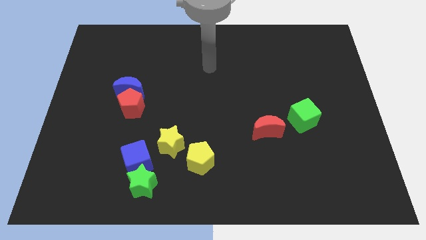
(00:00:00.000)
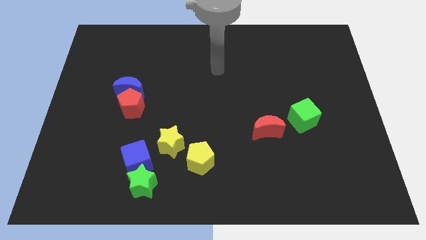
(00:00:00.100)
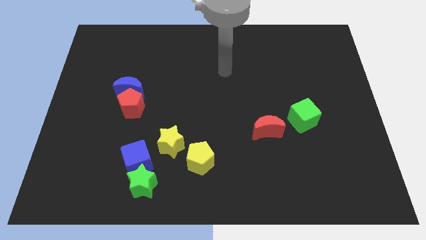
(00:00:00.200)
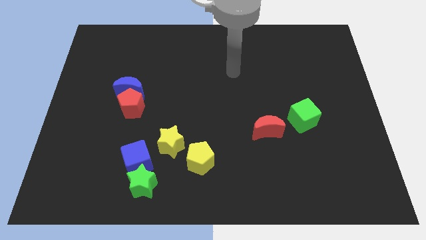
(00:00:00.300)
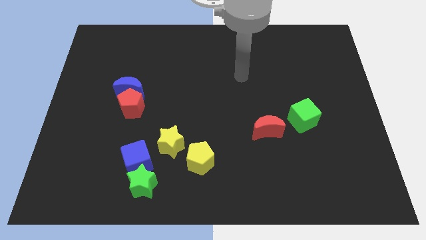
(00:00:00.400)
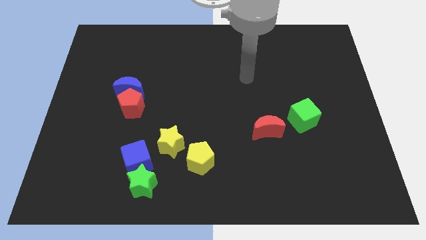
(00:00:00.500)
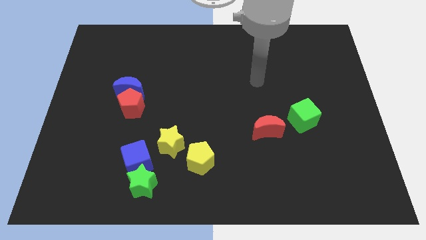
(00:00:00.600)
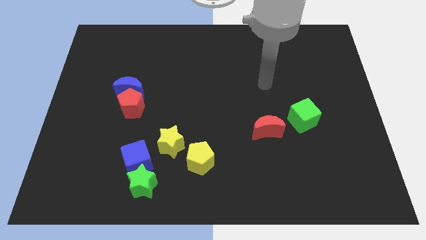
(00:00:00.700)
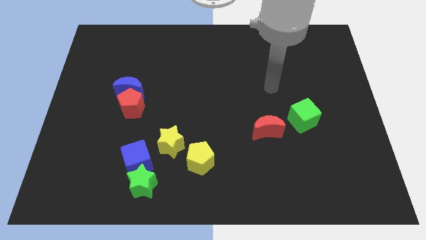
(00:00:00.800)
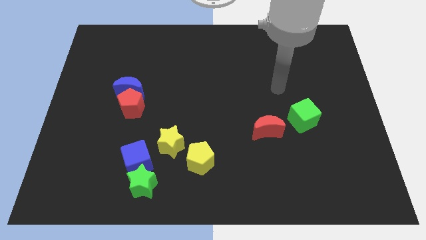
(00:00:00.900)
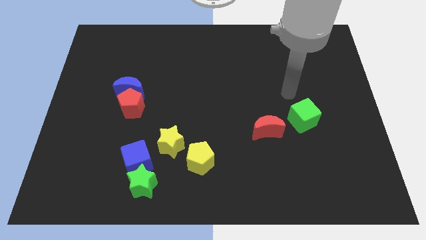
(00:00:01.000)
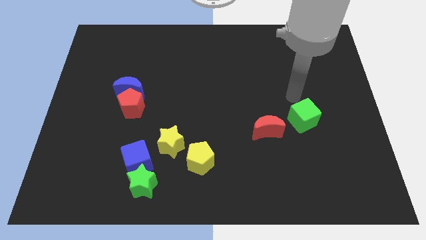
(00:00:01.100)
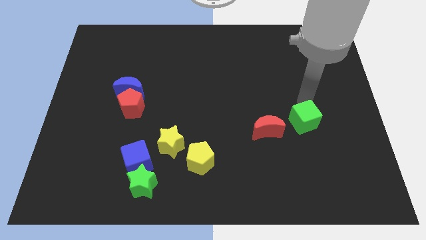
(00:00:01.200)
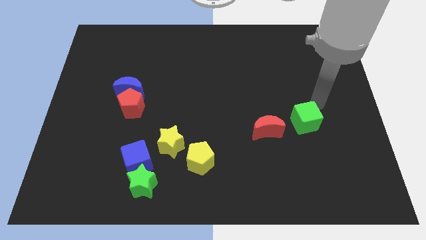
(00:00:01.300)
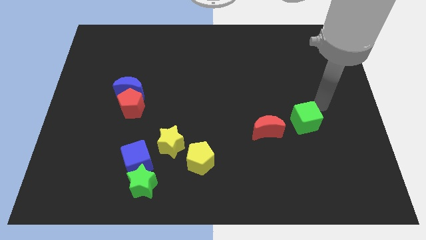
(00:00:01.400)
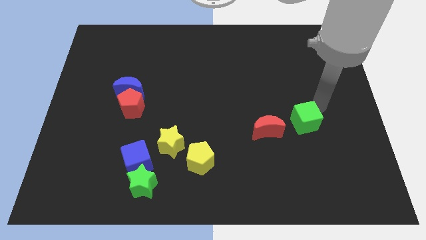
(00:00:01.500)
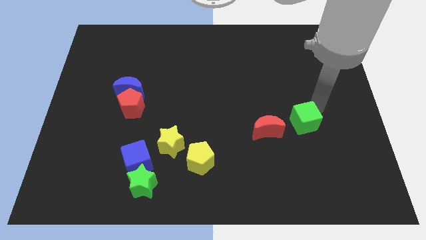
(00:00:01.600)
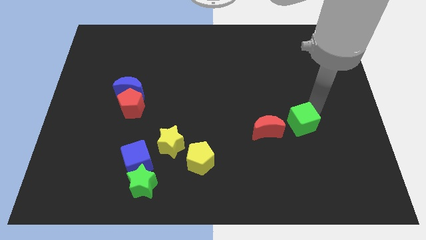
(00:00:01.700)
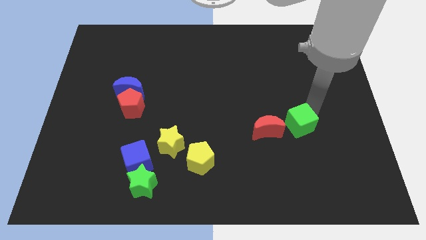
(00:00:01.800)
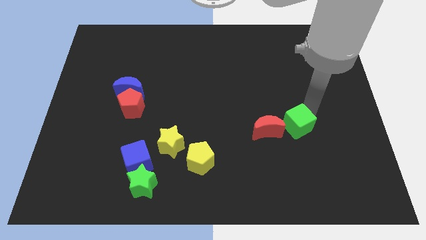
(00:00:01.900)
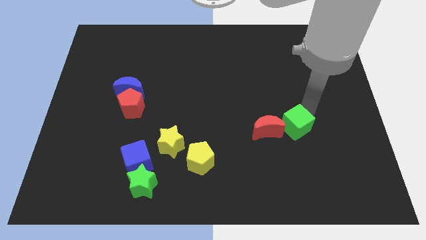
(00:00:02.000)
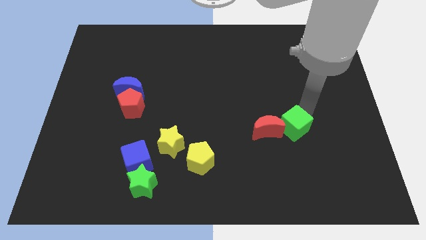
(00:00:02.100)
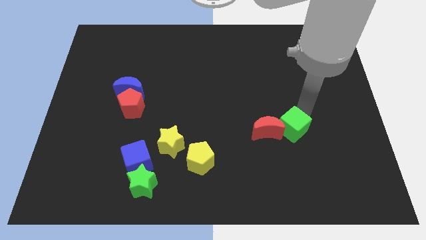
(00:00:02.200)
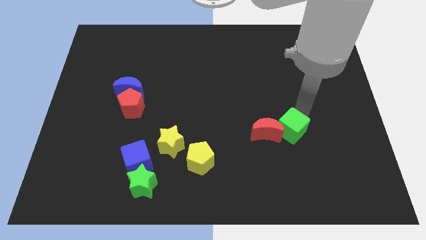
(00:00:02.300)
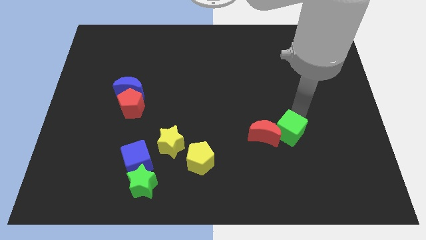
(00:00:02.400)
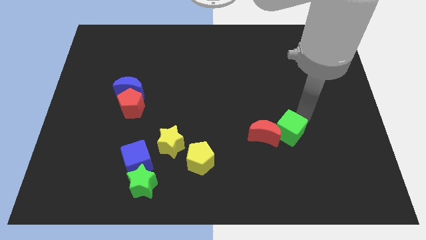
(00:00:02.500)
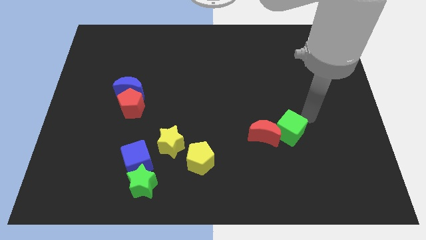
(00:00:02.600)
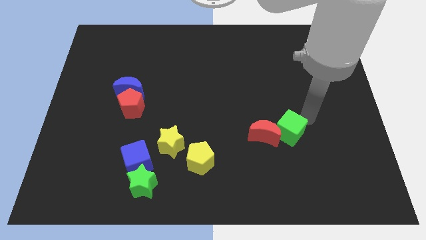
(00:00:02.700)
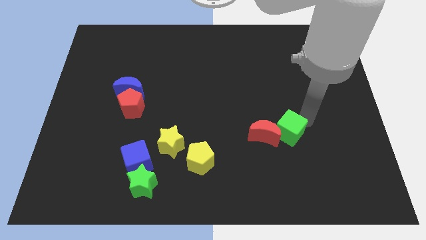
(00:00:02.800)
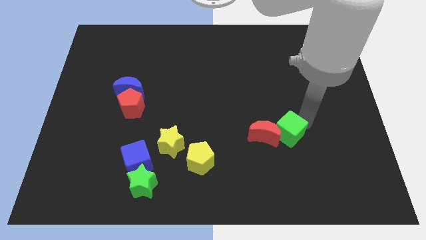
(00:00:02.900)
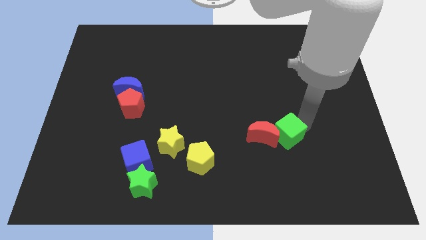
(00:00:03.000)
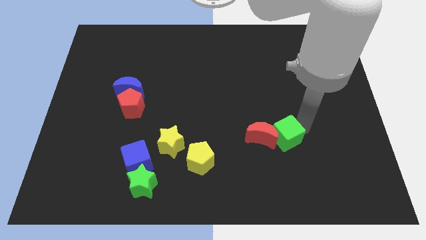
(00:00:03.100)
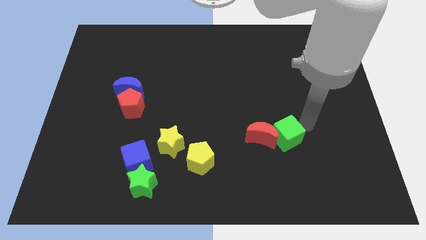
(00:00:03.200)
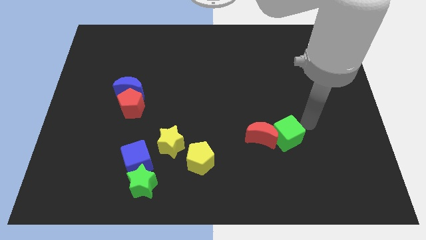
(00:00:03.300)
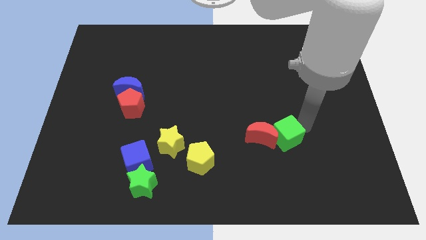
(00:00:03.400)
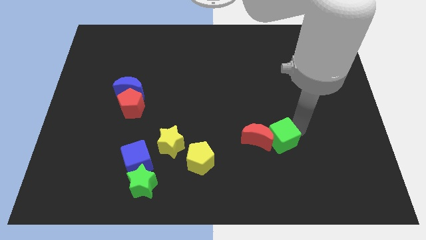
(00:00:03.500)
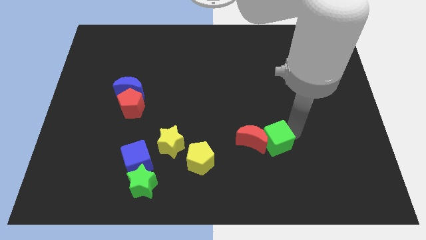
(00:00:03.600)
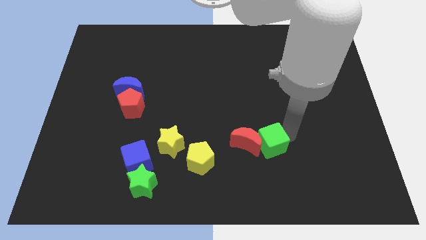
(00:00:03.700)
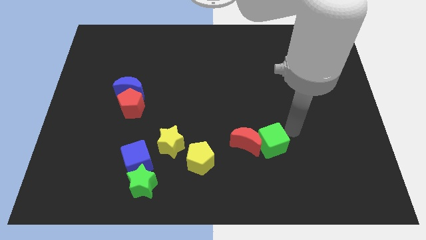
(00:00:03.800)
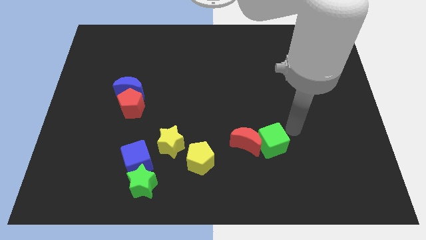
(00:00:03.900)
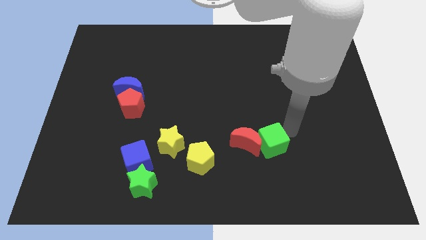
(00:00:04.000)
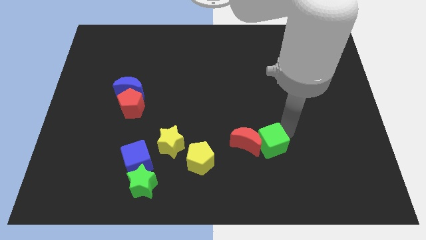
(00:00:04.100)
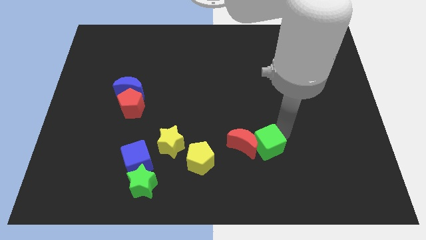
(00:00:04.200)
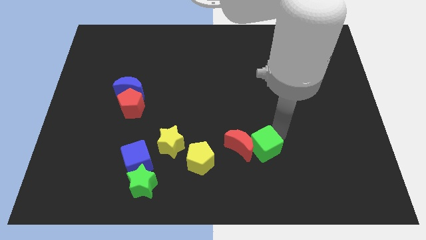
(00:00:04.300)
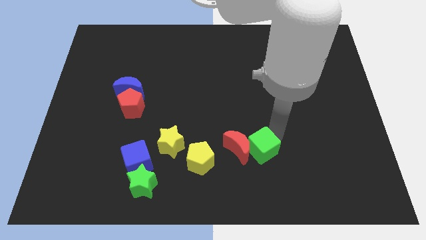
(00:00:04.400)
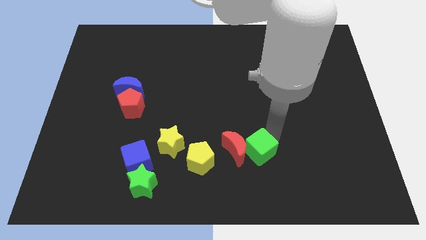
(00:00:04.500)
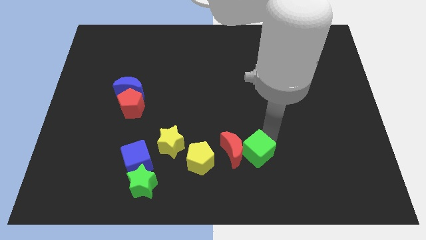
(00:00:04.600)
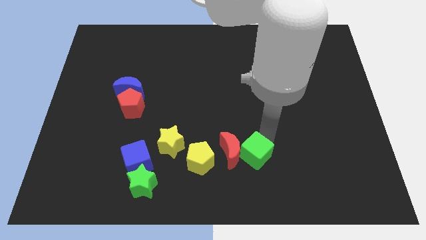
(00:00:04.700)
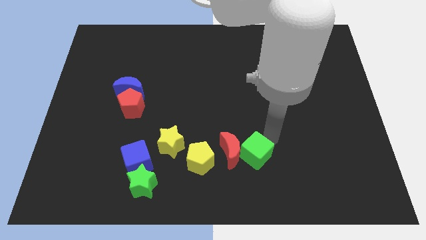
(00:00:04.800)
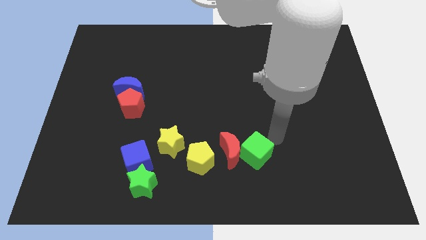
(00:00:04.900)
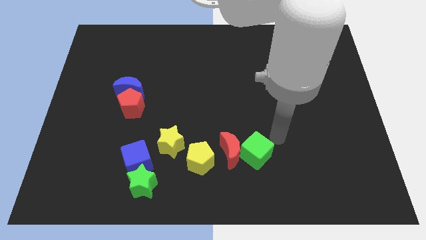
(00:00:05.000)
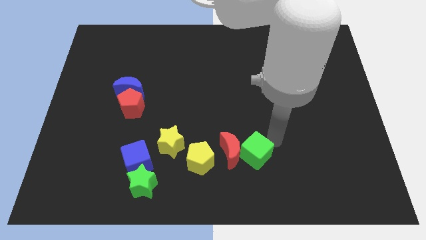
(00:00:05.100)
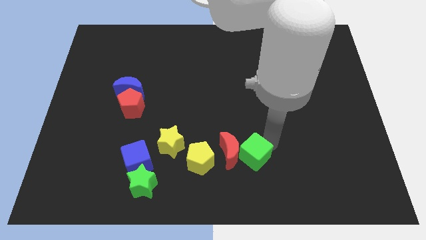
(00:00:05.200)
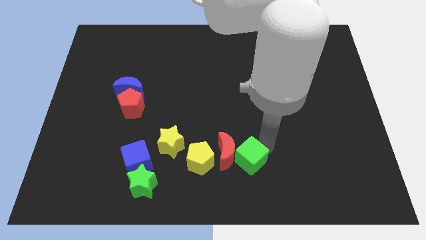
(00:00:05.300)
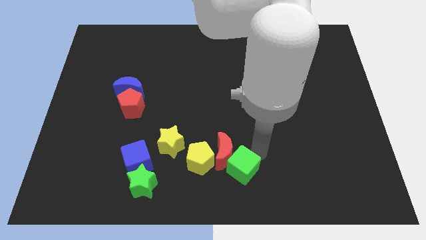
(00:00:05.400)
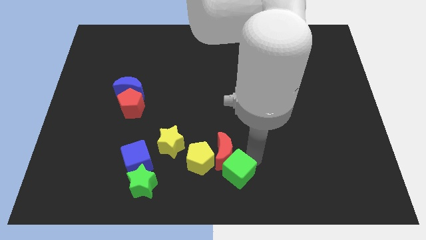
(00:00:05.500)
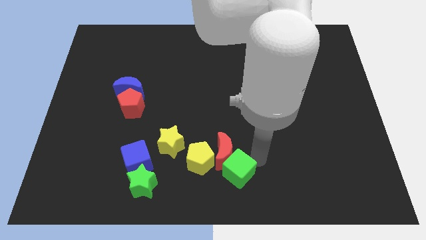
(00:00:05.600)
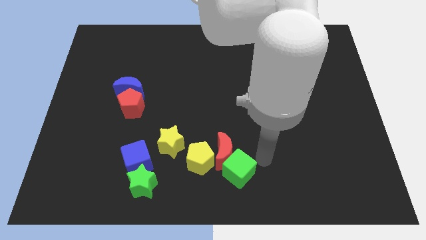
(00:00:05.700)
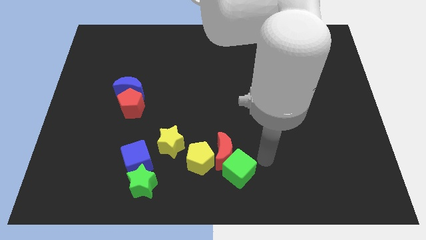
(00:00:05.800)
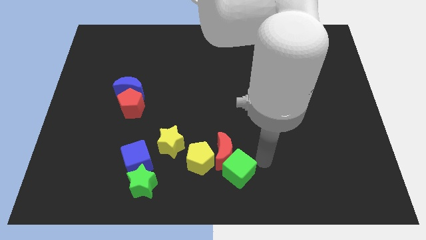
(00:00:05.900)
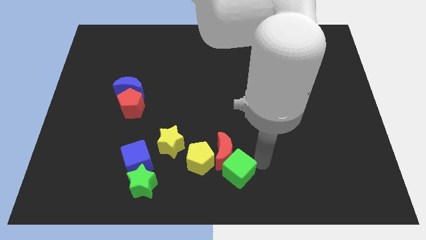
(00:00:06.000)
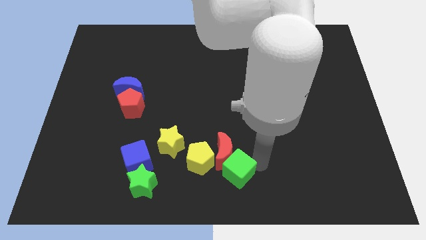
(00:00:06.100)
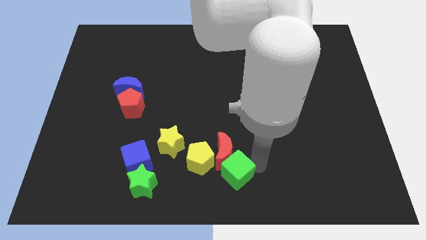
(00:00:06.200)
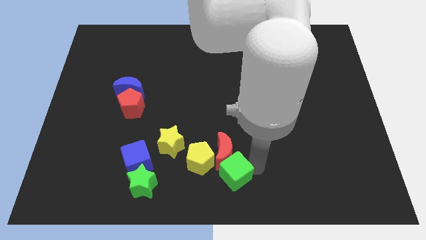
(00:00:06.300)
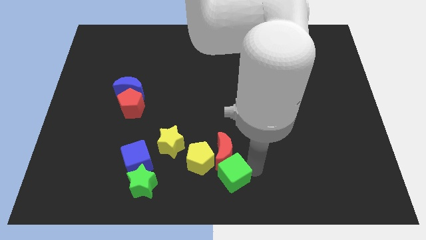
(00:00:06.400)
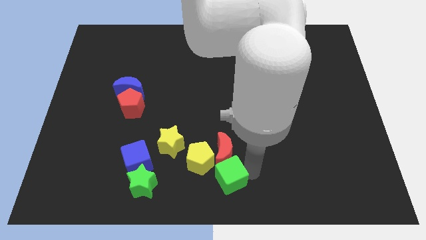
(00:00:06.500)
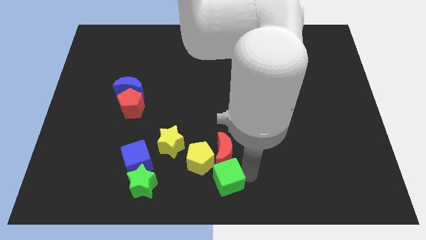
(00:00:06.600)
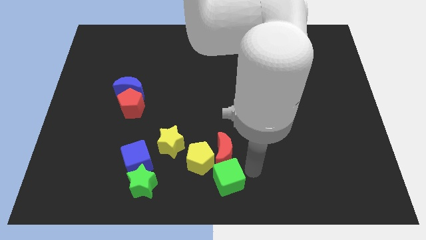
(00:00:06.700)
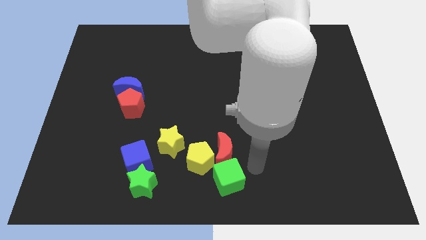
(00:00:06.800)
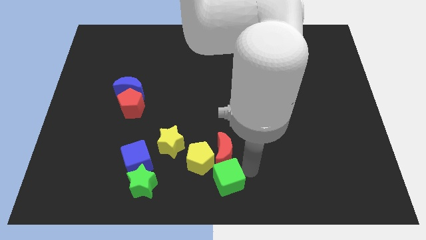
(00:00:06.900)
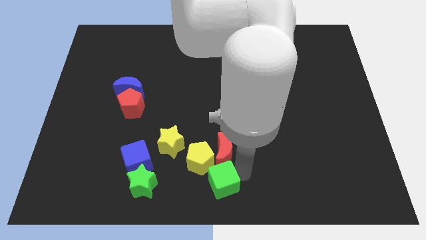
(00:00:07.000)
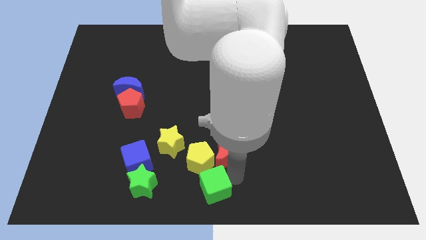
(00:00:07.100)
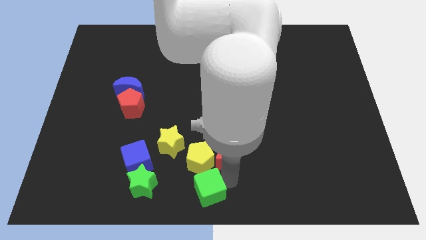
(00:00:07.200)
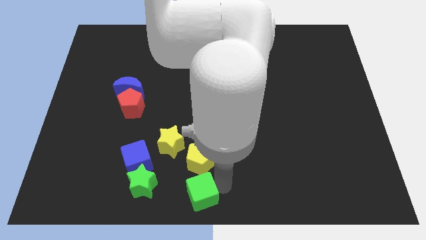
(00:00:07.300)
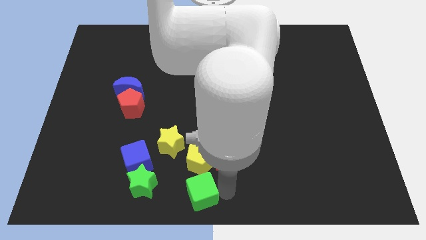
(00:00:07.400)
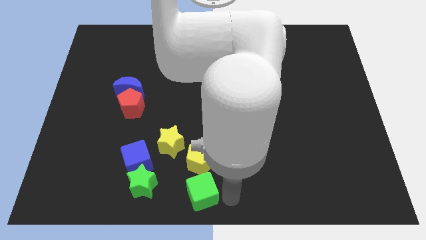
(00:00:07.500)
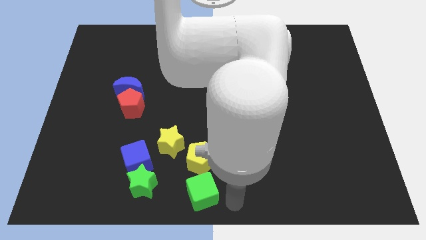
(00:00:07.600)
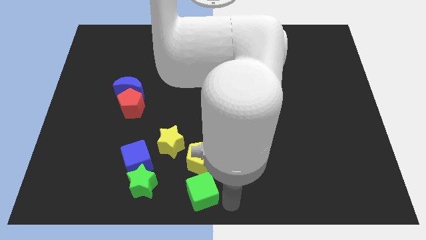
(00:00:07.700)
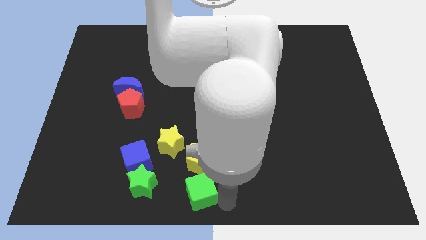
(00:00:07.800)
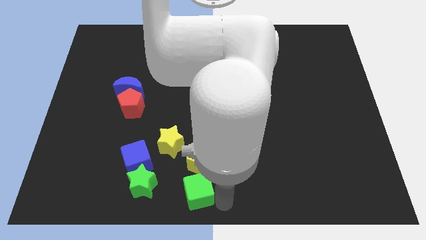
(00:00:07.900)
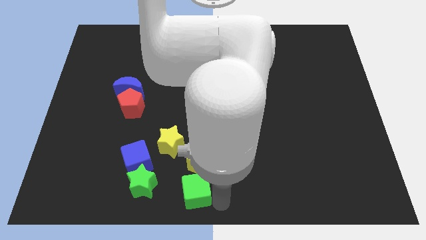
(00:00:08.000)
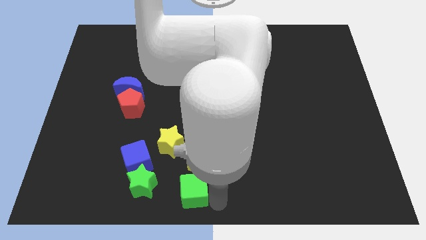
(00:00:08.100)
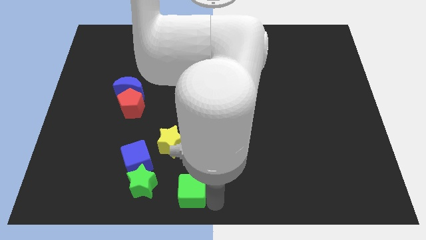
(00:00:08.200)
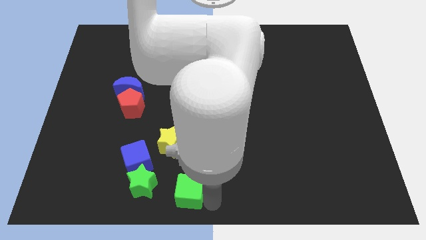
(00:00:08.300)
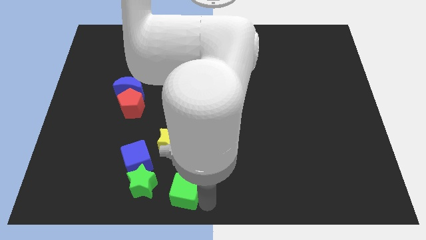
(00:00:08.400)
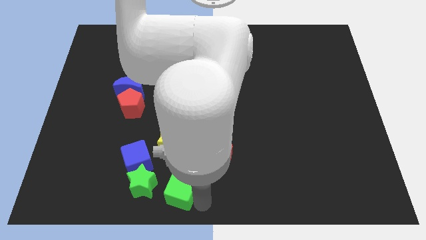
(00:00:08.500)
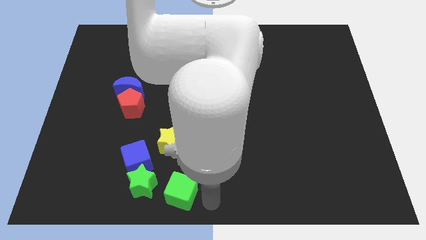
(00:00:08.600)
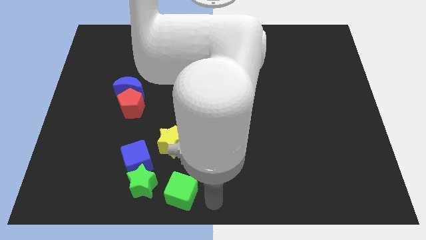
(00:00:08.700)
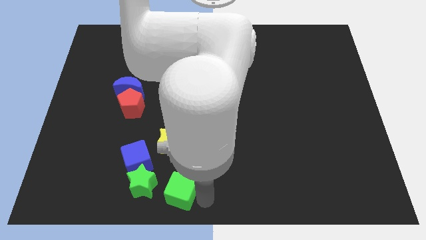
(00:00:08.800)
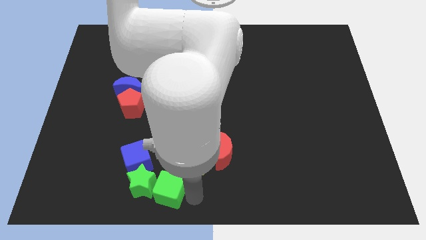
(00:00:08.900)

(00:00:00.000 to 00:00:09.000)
push the green cube next to the green star
